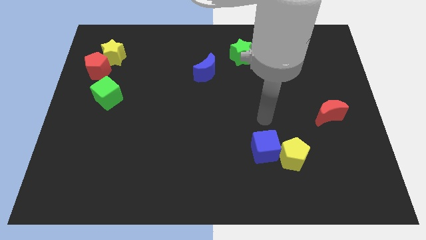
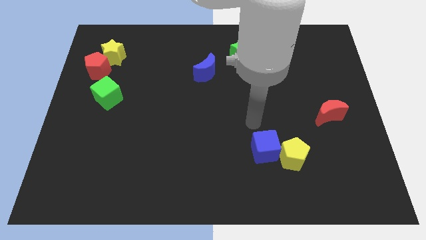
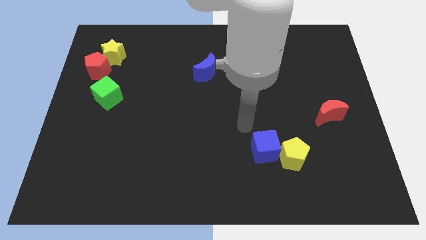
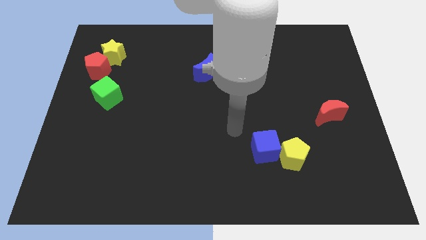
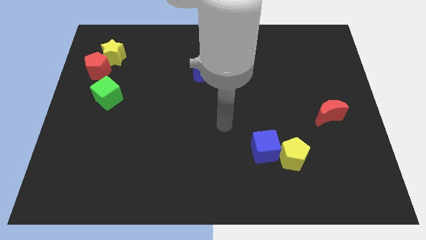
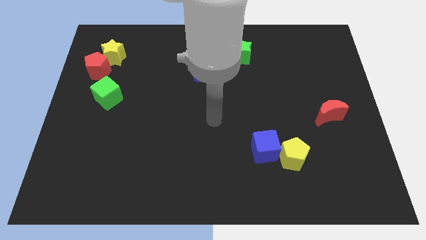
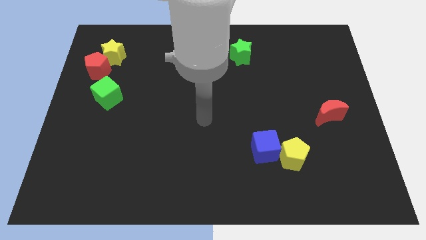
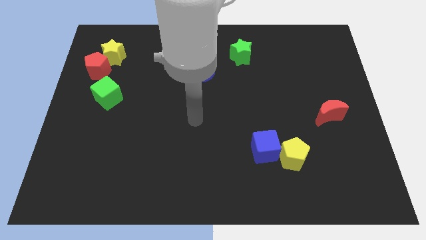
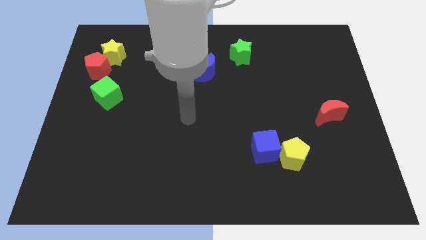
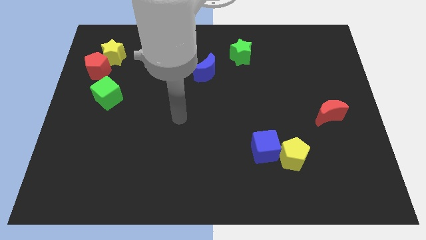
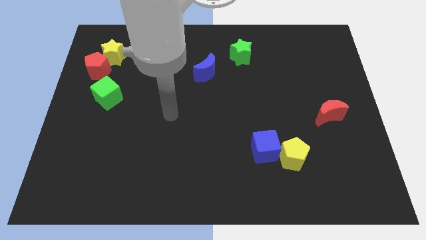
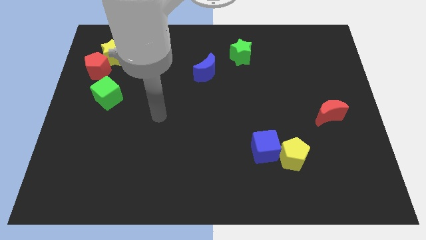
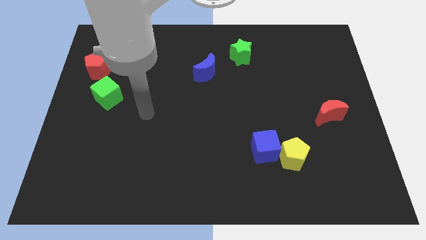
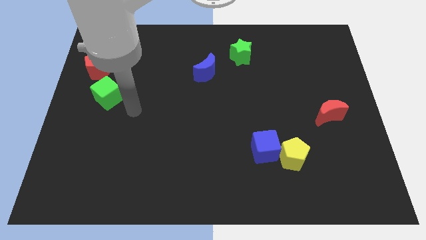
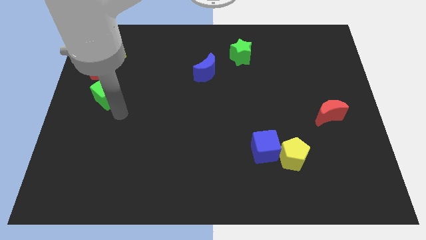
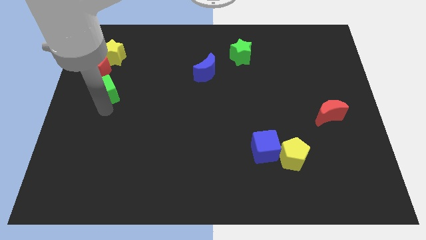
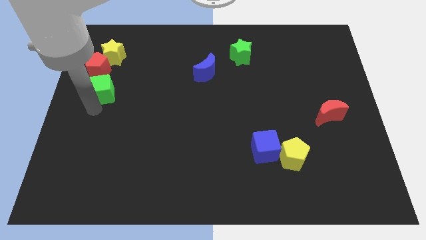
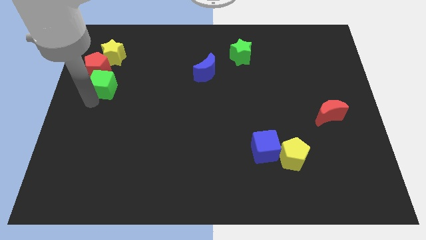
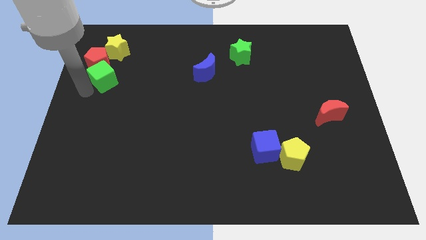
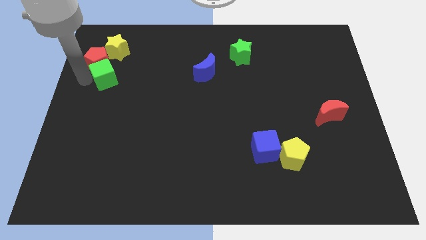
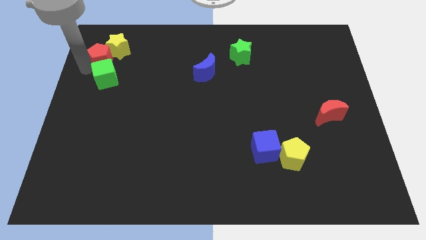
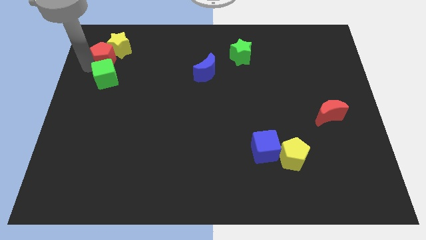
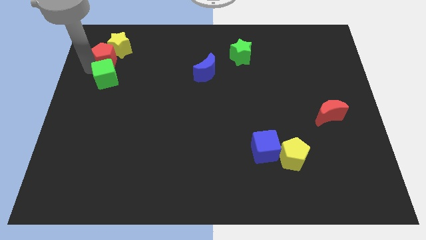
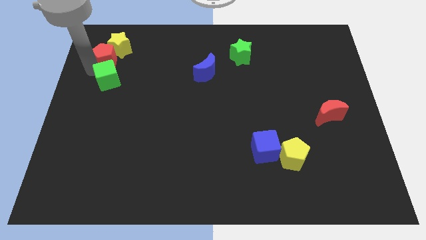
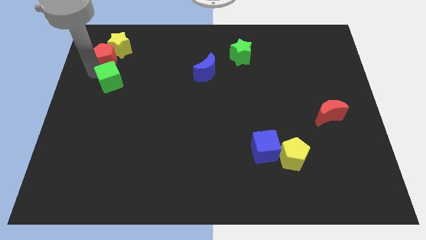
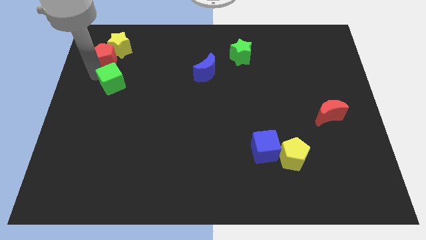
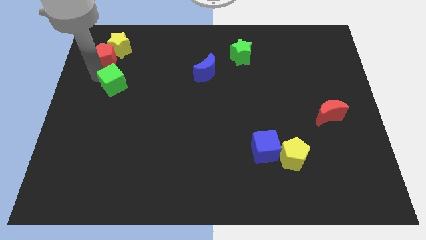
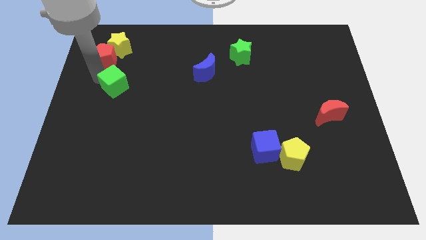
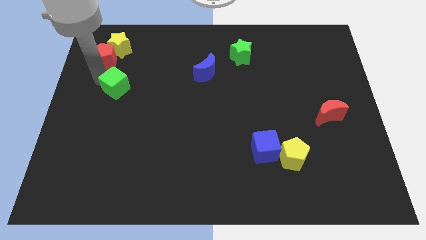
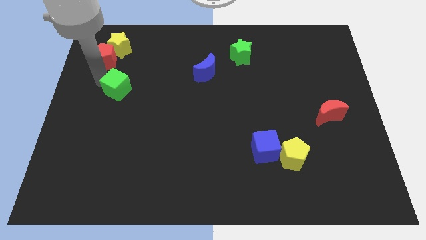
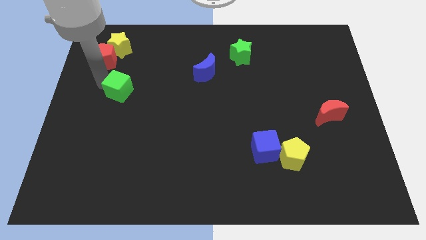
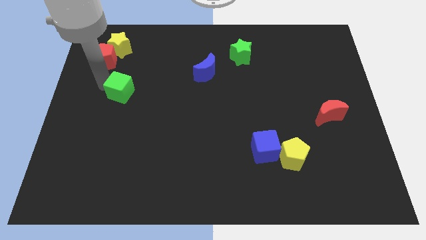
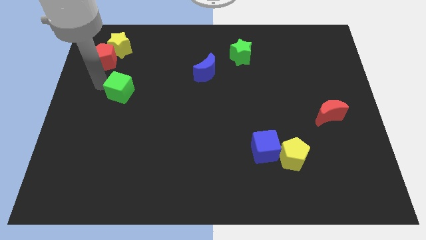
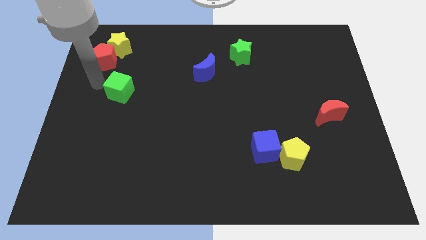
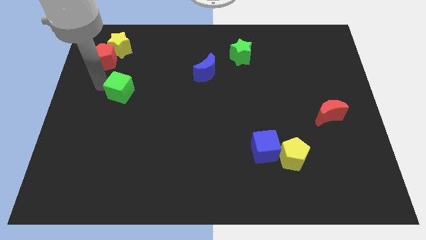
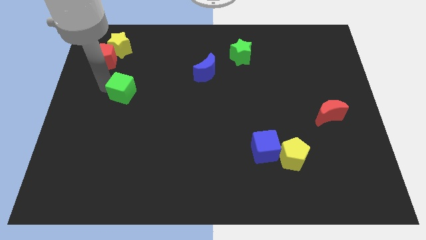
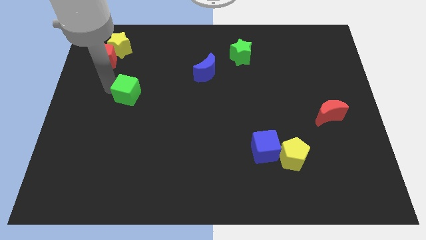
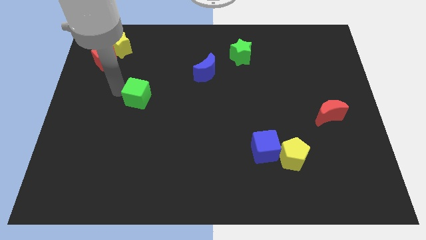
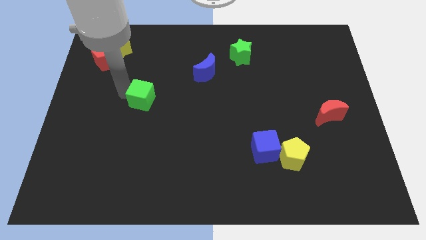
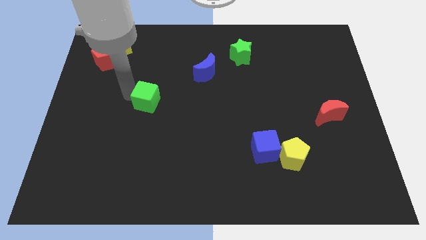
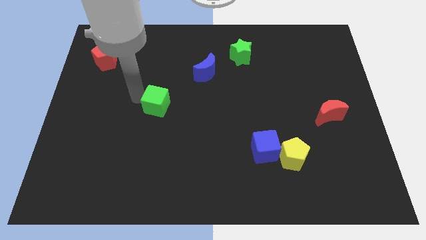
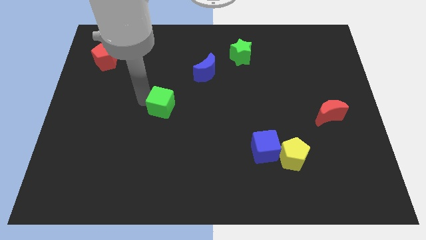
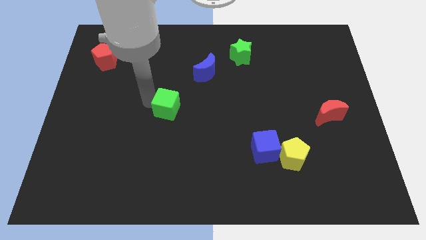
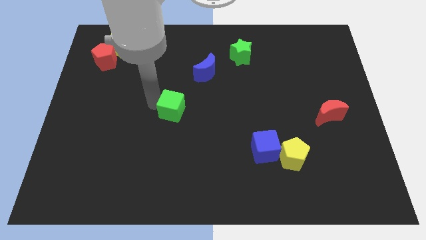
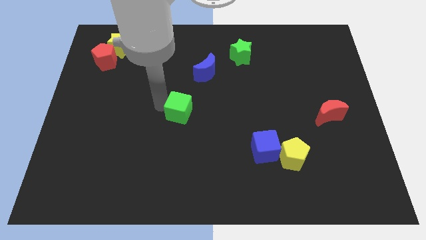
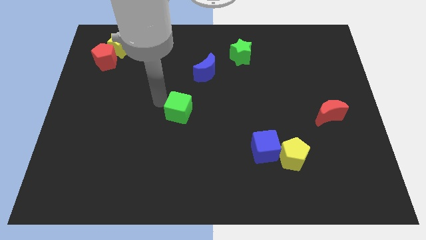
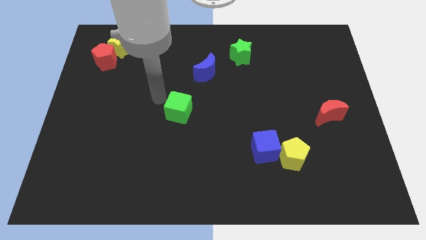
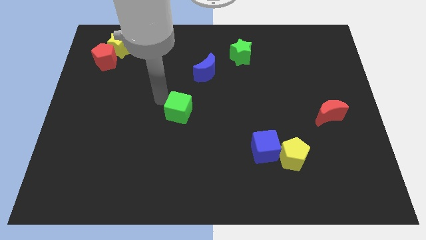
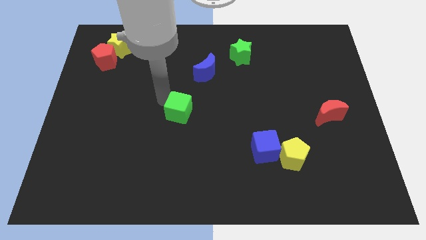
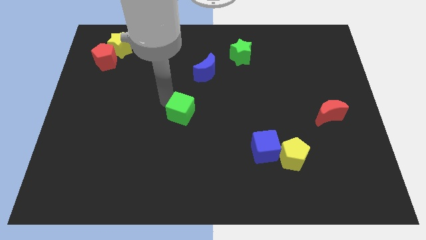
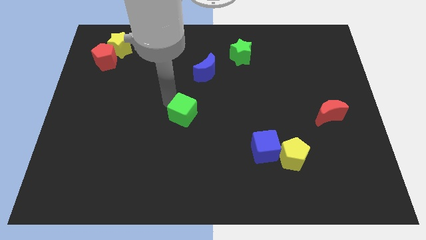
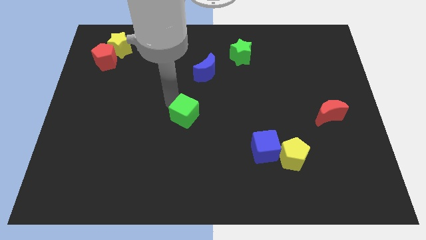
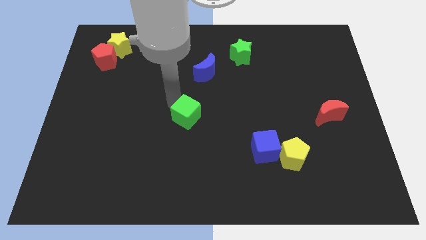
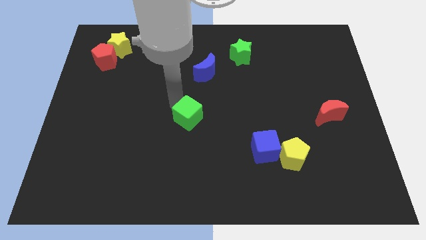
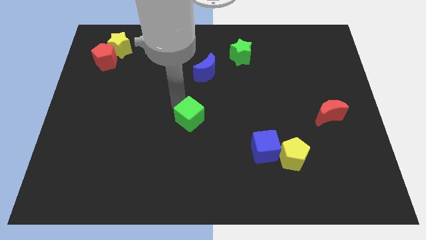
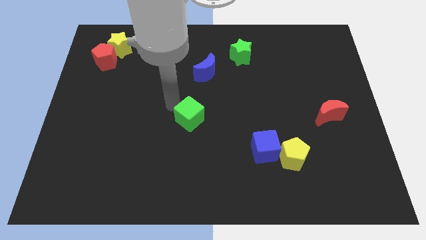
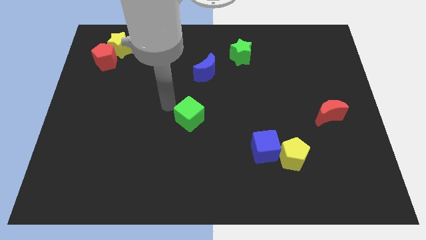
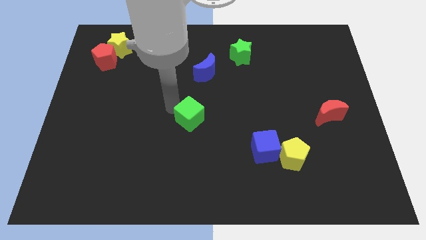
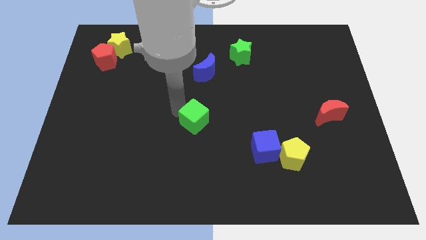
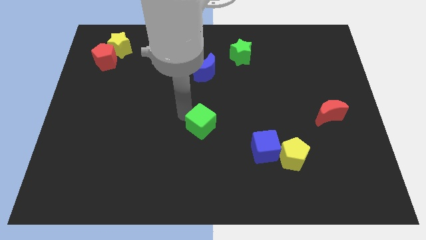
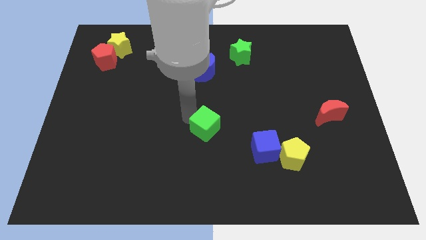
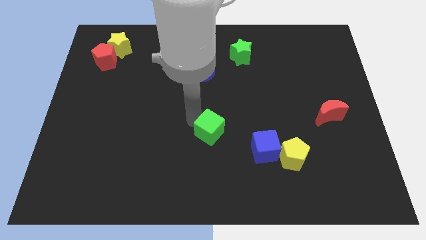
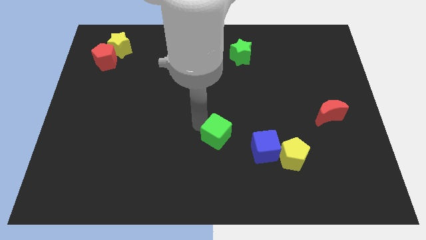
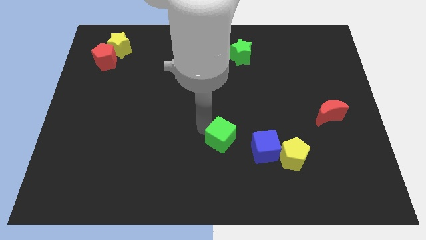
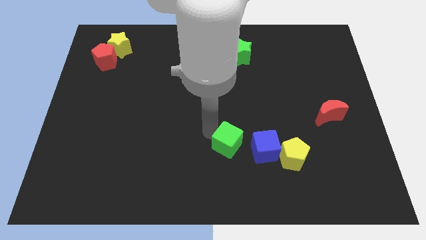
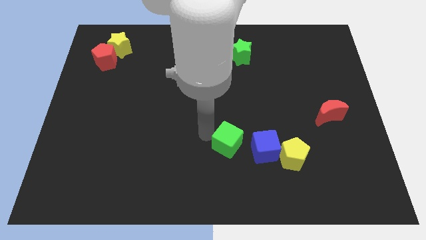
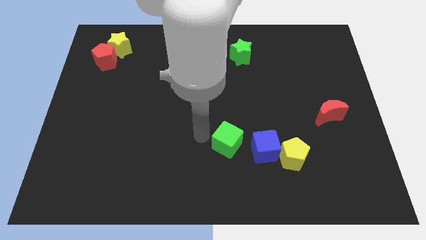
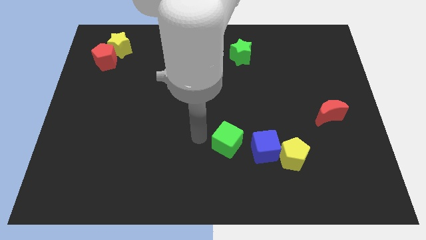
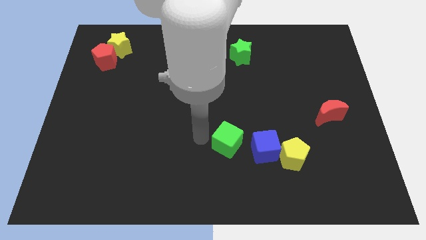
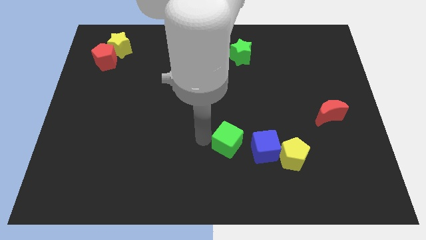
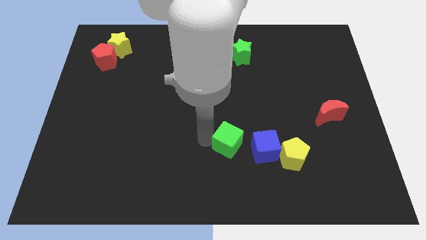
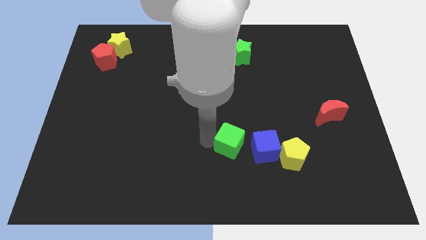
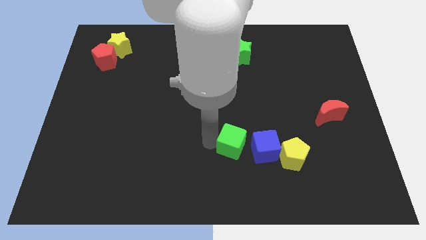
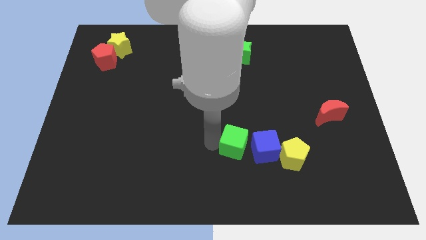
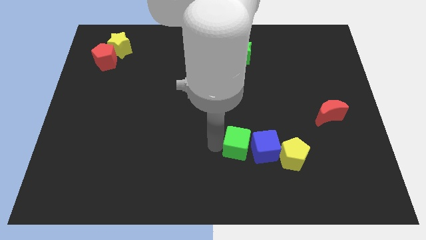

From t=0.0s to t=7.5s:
put the green cube towards the blue cube
